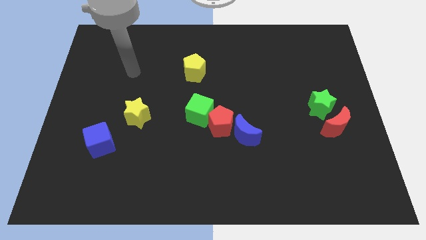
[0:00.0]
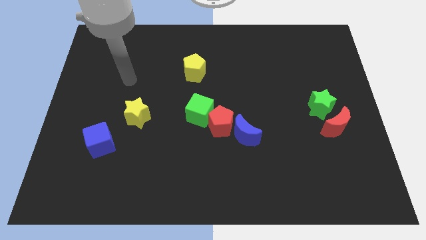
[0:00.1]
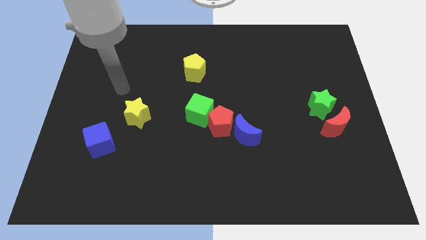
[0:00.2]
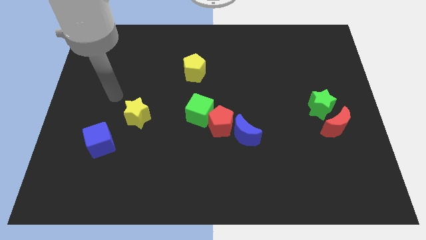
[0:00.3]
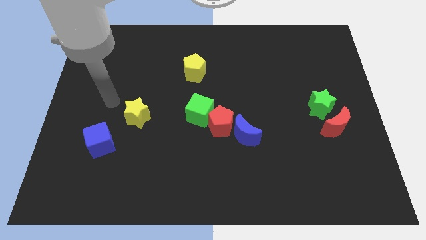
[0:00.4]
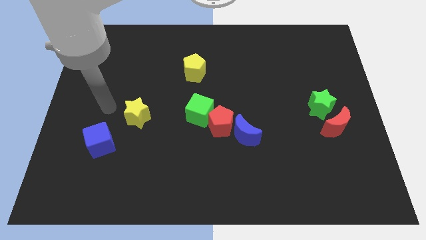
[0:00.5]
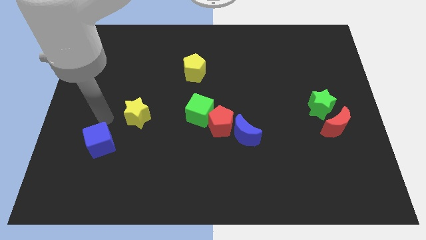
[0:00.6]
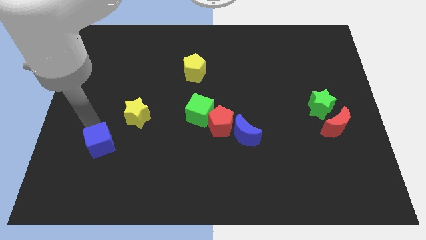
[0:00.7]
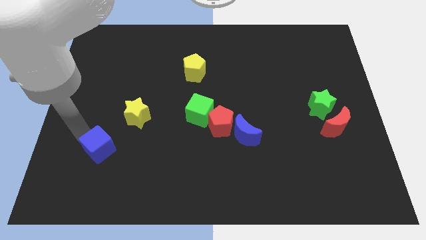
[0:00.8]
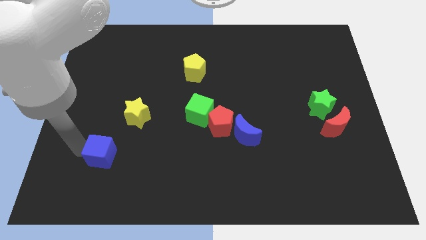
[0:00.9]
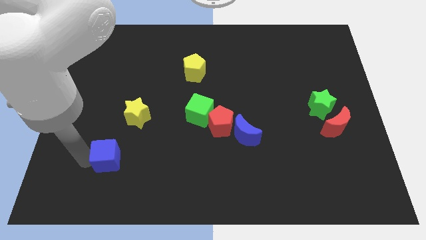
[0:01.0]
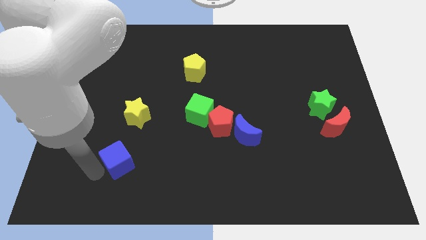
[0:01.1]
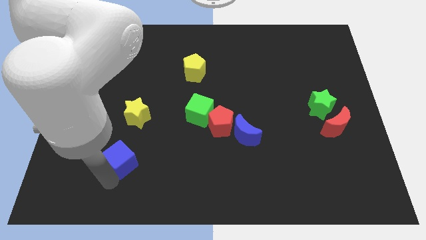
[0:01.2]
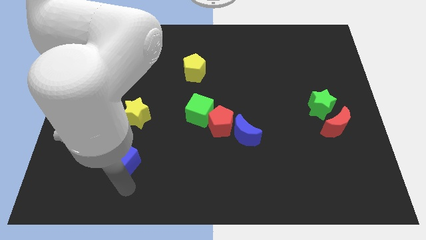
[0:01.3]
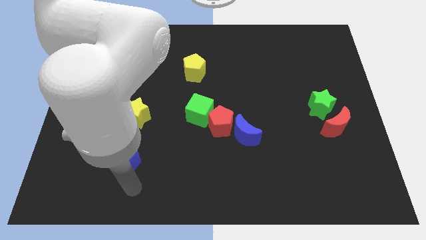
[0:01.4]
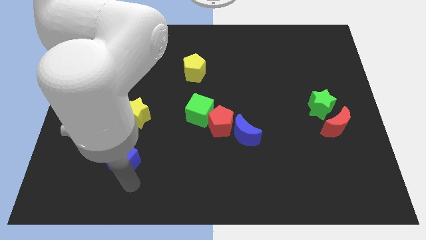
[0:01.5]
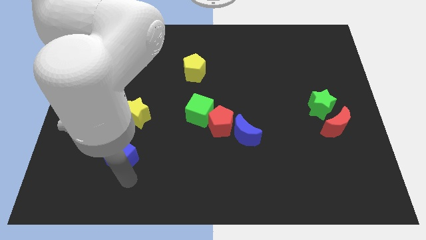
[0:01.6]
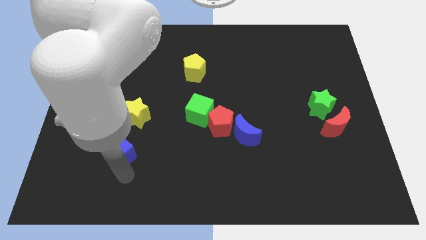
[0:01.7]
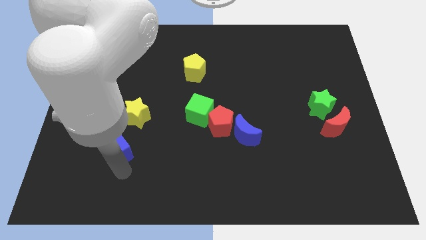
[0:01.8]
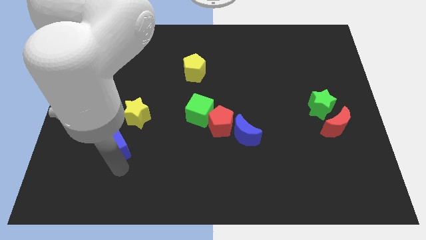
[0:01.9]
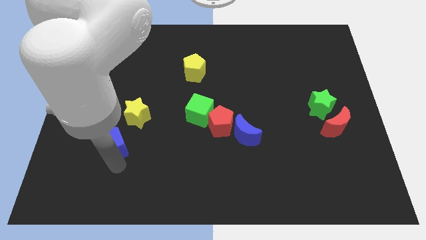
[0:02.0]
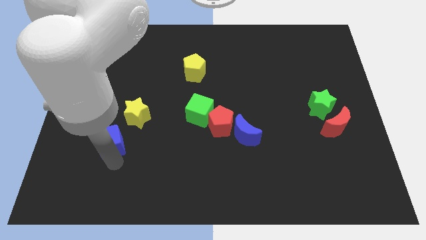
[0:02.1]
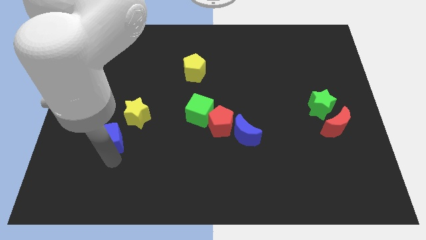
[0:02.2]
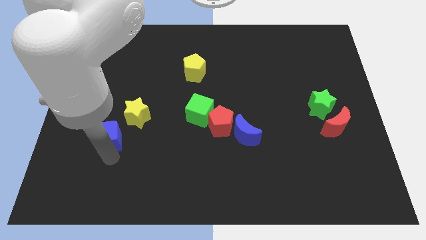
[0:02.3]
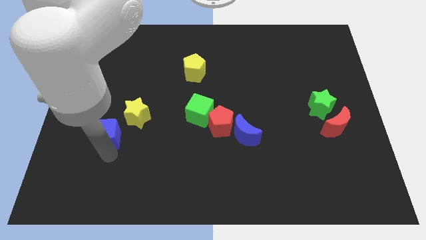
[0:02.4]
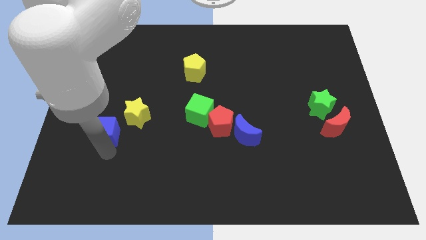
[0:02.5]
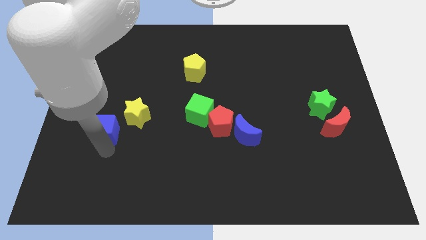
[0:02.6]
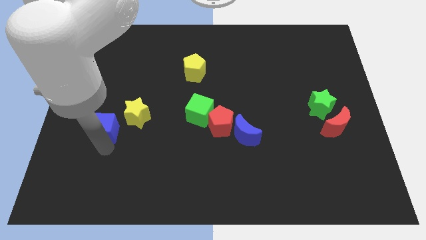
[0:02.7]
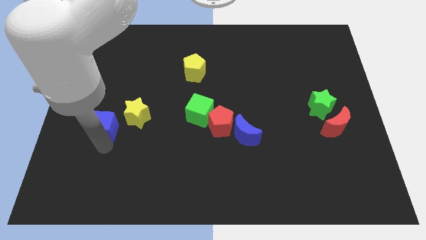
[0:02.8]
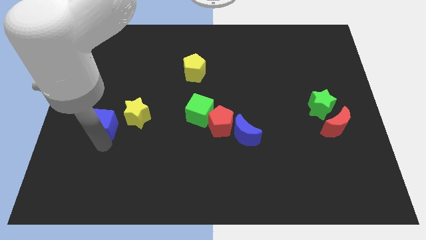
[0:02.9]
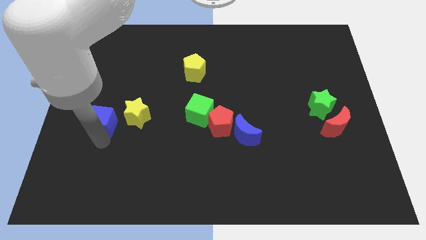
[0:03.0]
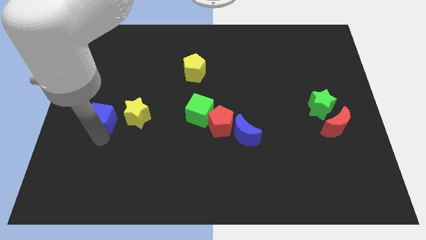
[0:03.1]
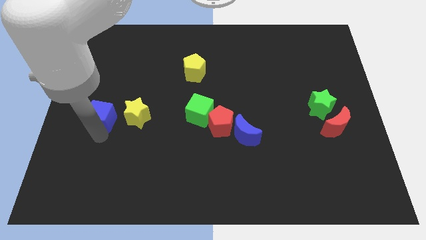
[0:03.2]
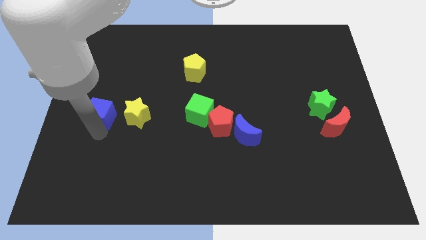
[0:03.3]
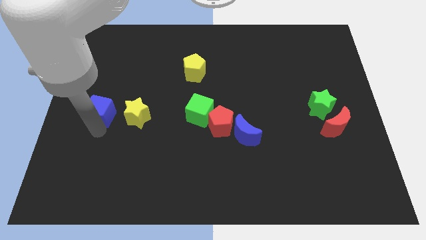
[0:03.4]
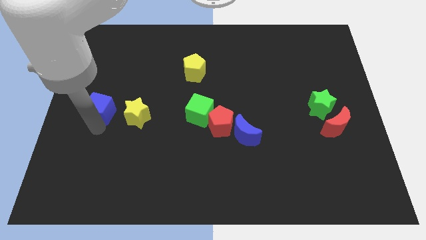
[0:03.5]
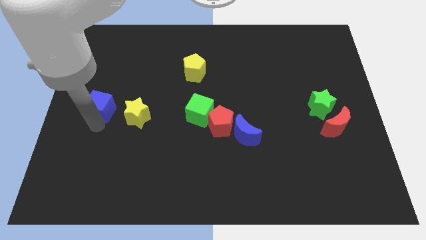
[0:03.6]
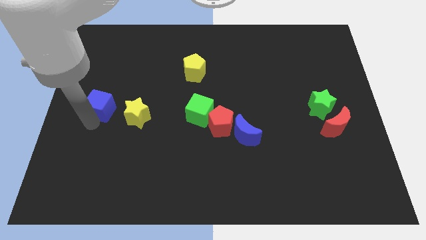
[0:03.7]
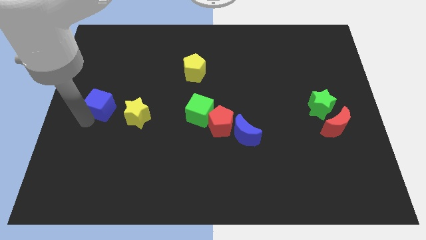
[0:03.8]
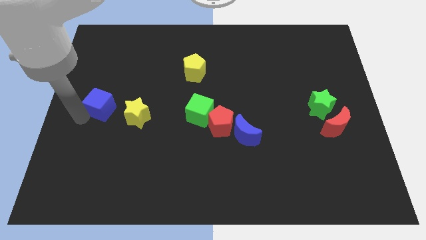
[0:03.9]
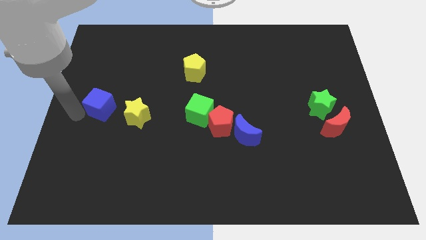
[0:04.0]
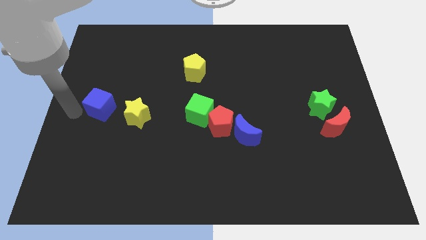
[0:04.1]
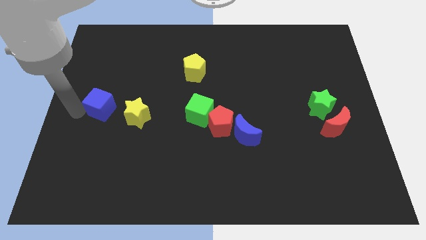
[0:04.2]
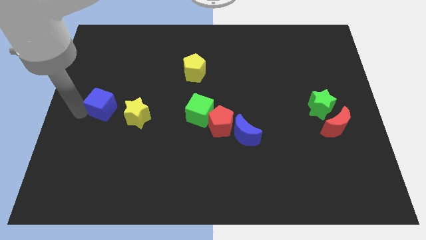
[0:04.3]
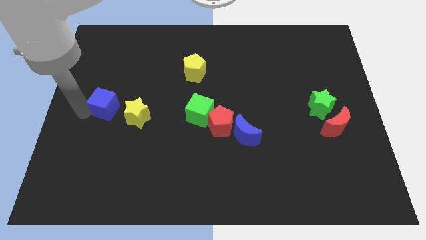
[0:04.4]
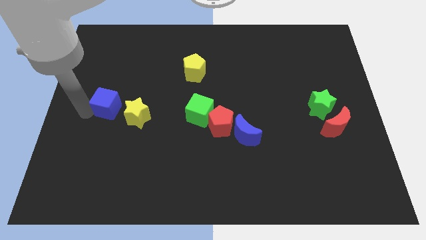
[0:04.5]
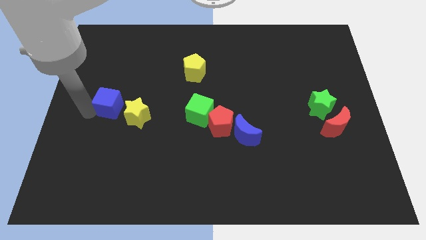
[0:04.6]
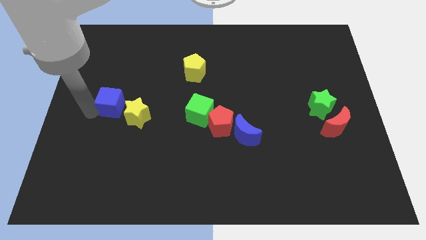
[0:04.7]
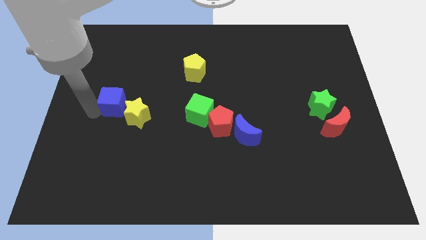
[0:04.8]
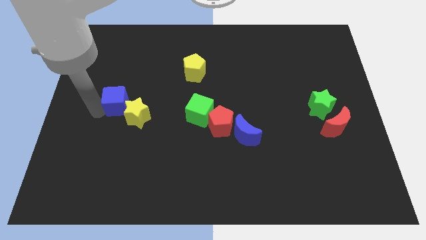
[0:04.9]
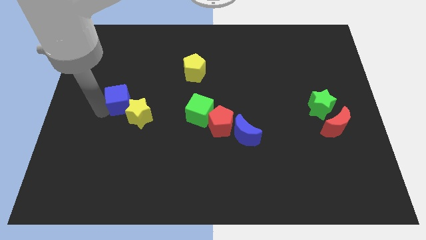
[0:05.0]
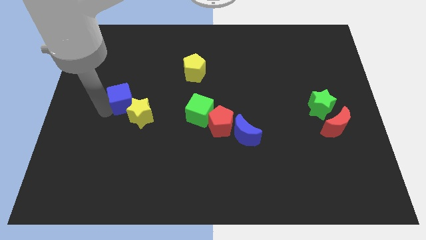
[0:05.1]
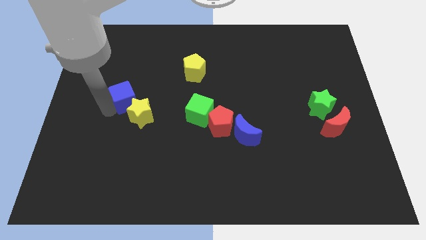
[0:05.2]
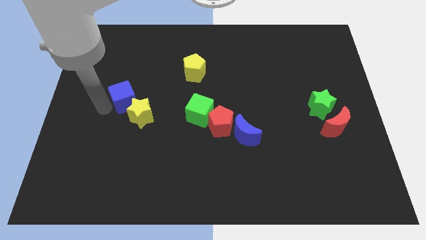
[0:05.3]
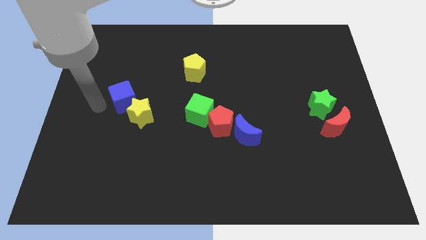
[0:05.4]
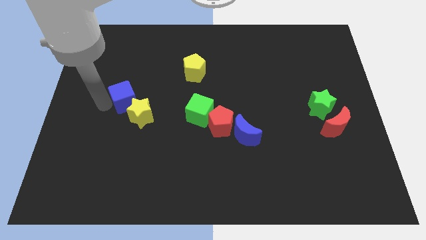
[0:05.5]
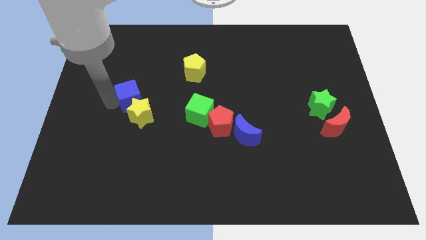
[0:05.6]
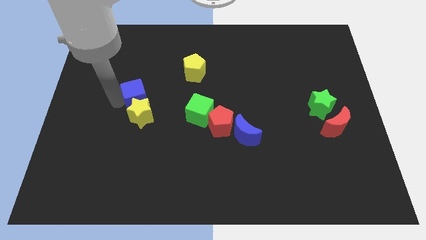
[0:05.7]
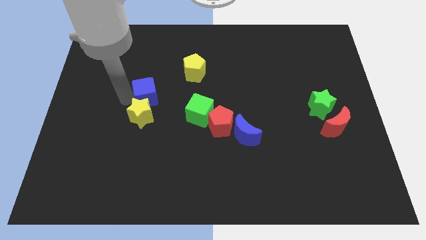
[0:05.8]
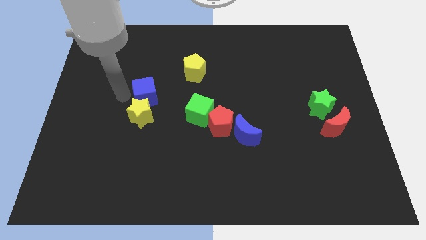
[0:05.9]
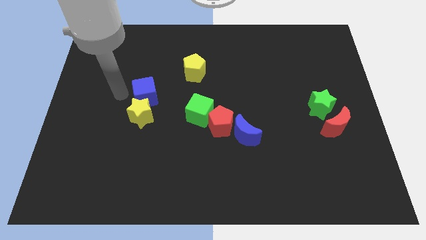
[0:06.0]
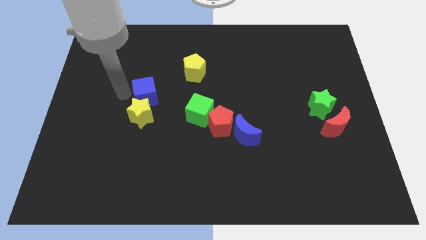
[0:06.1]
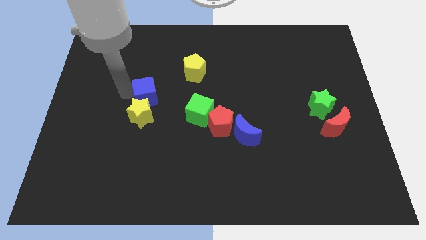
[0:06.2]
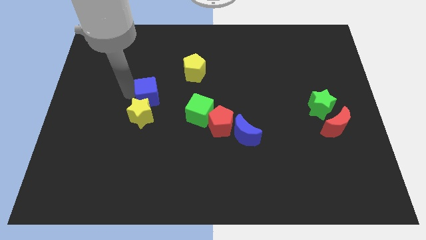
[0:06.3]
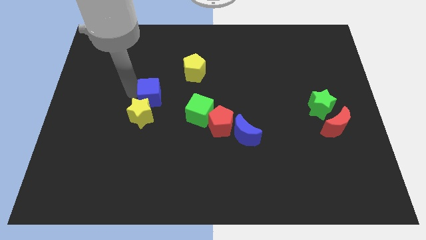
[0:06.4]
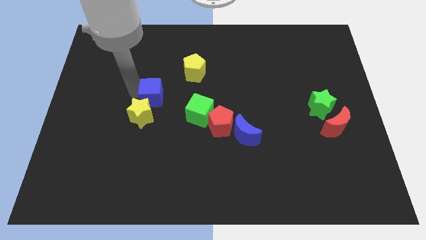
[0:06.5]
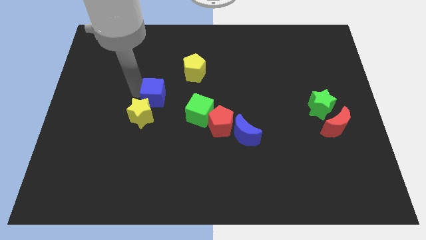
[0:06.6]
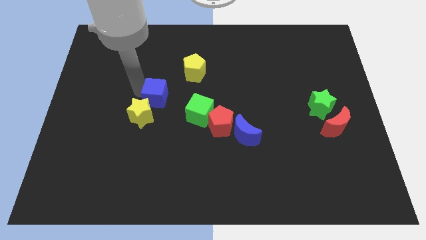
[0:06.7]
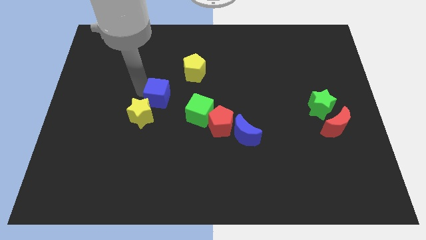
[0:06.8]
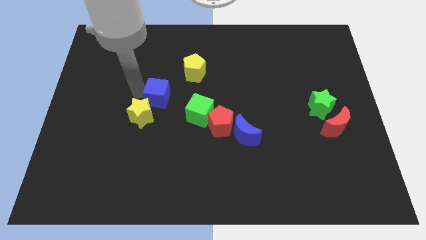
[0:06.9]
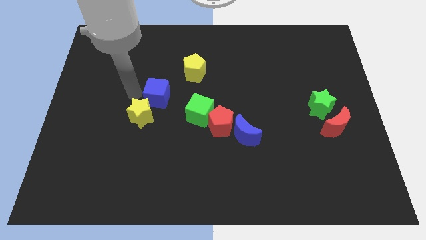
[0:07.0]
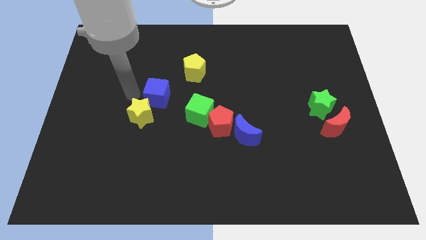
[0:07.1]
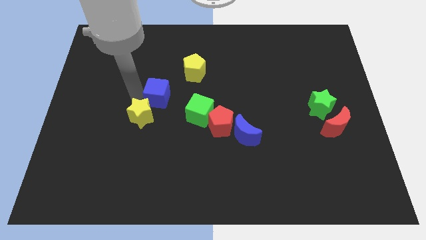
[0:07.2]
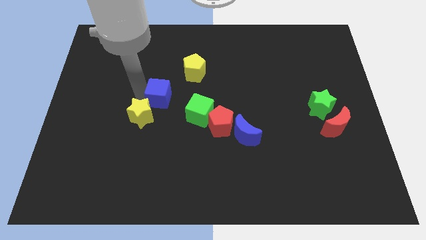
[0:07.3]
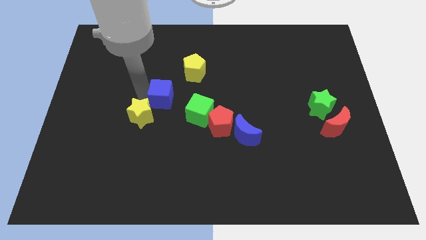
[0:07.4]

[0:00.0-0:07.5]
push the blue cube to the center
